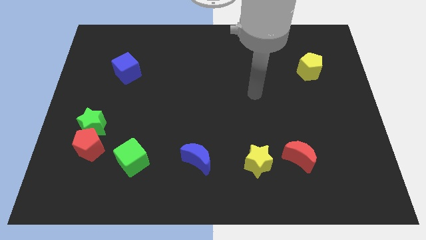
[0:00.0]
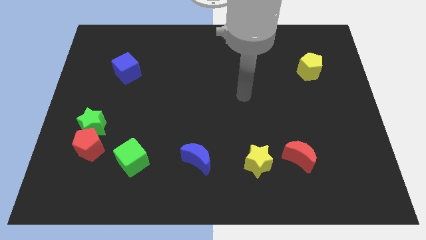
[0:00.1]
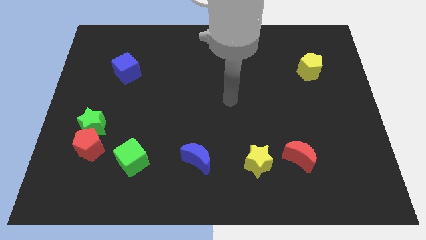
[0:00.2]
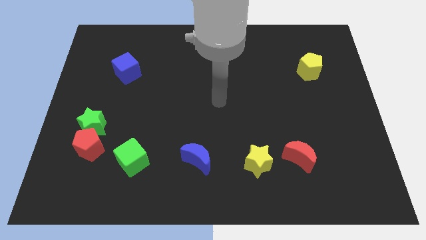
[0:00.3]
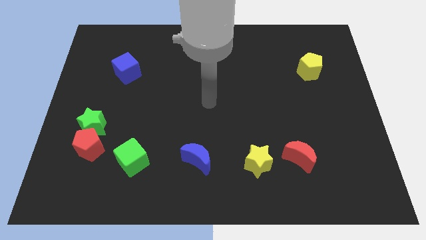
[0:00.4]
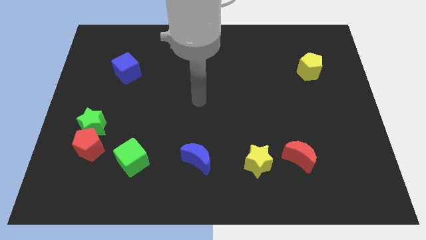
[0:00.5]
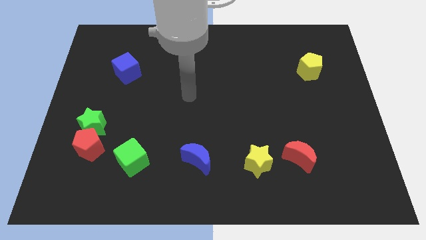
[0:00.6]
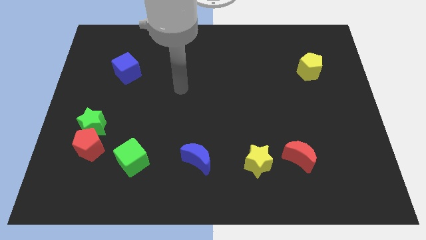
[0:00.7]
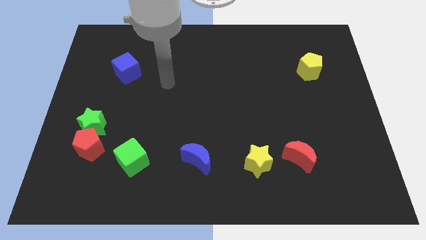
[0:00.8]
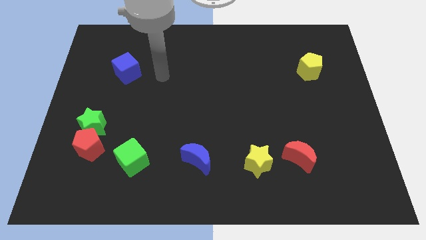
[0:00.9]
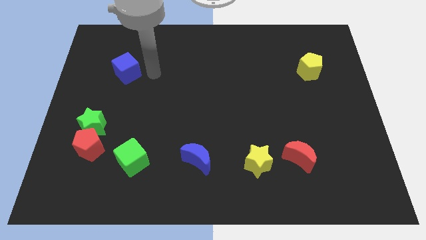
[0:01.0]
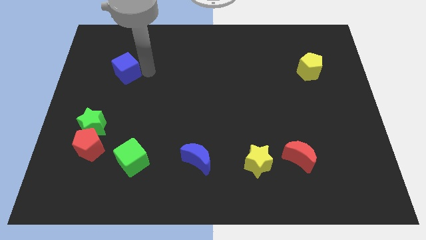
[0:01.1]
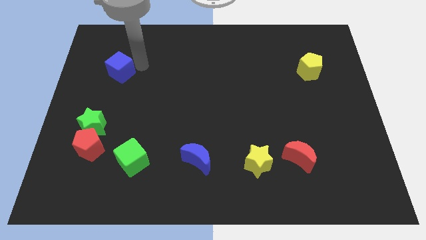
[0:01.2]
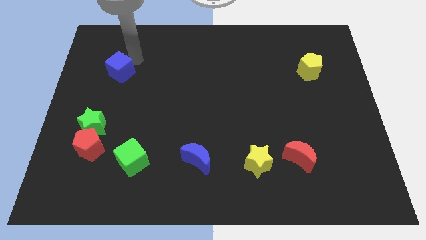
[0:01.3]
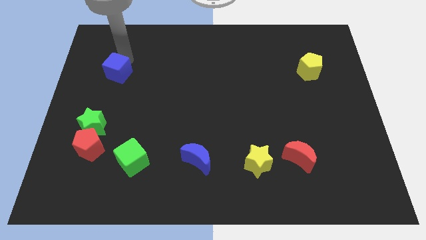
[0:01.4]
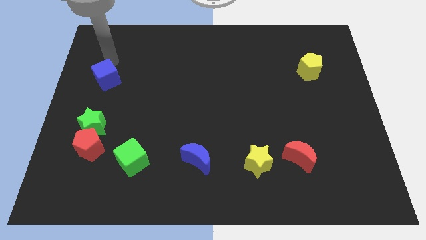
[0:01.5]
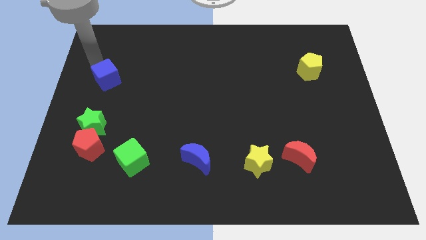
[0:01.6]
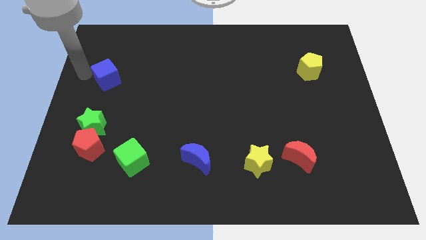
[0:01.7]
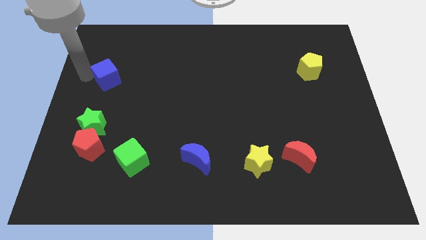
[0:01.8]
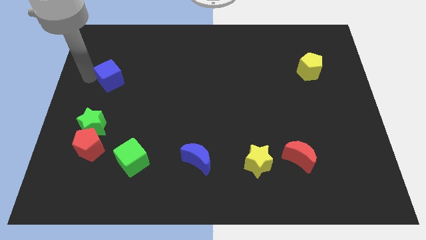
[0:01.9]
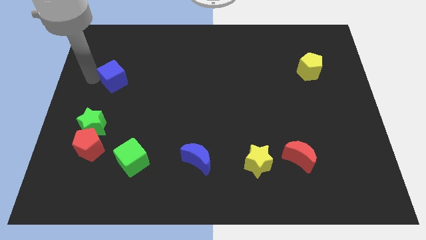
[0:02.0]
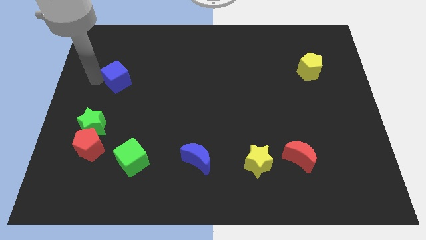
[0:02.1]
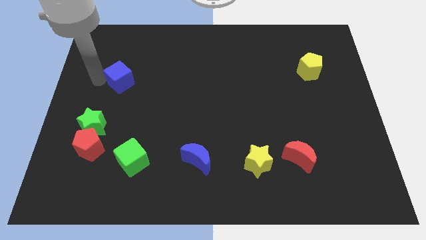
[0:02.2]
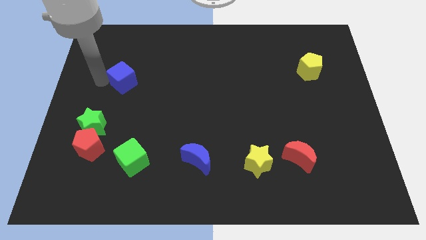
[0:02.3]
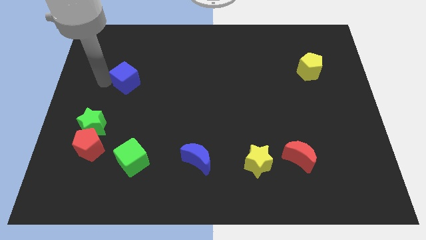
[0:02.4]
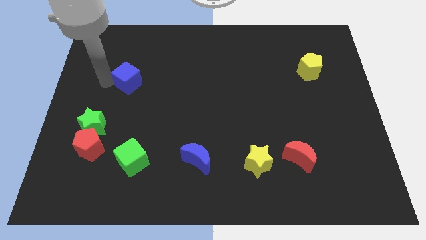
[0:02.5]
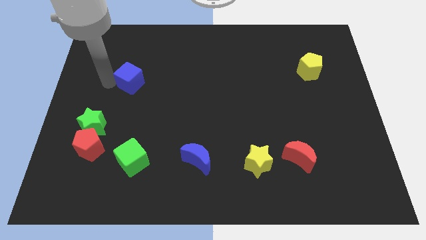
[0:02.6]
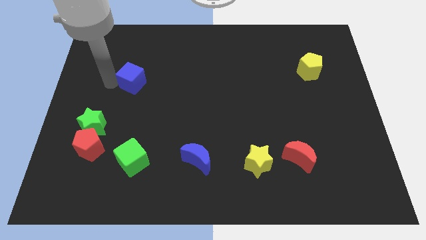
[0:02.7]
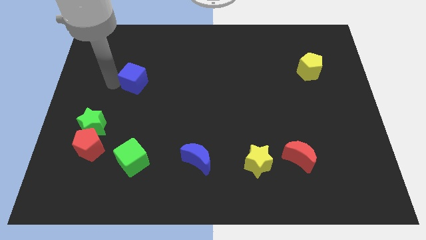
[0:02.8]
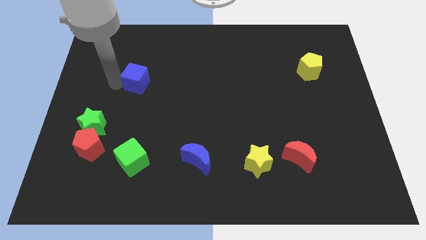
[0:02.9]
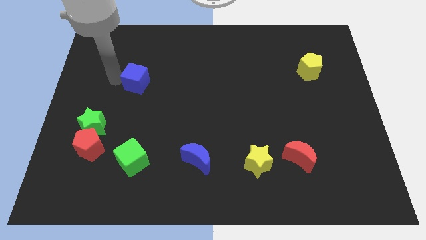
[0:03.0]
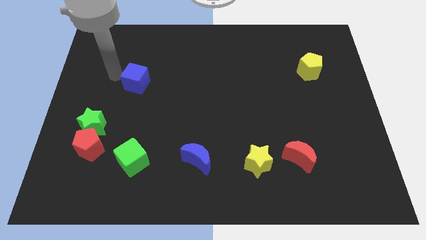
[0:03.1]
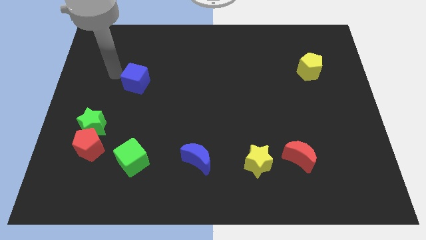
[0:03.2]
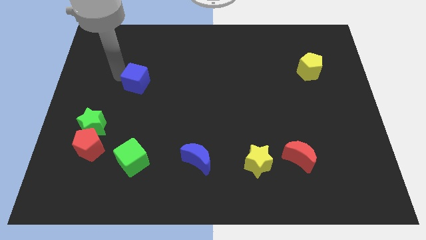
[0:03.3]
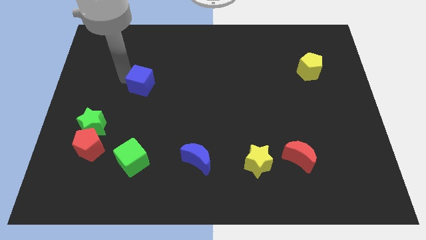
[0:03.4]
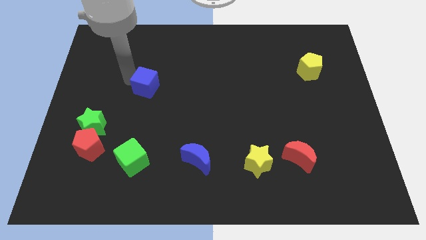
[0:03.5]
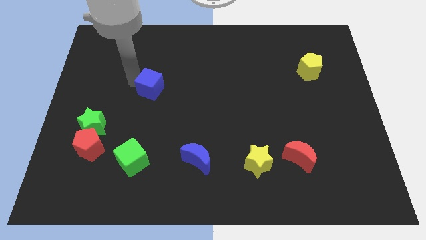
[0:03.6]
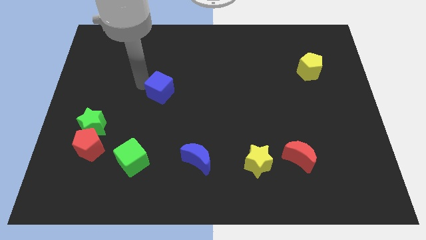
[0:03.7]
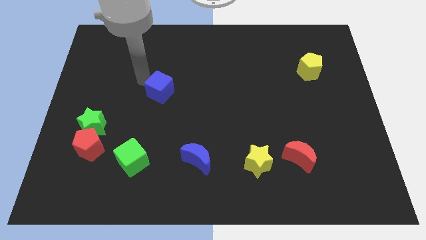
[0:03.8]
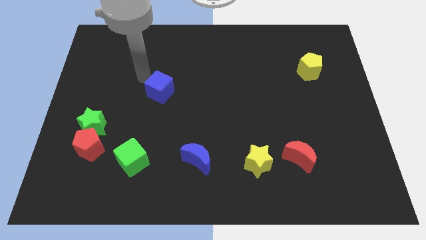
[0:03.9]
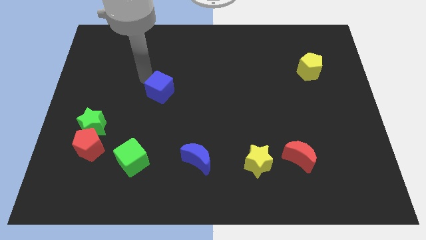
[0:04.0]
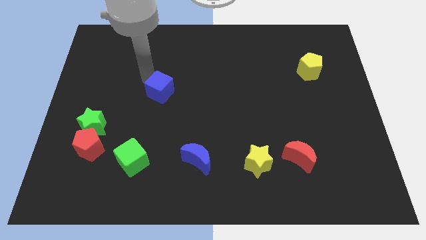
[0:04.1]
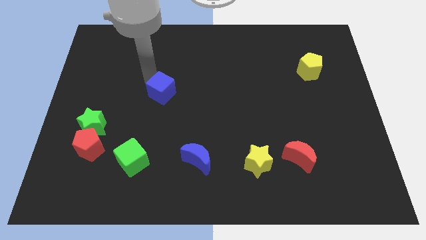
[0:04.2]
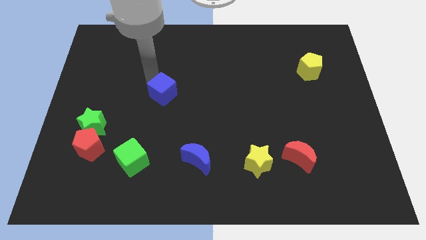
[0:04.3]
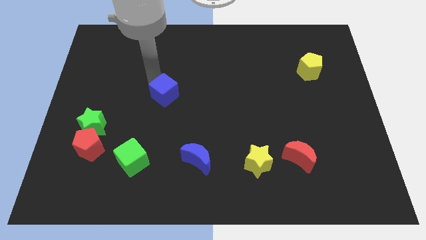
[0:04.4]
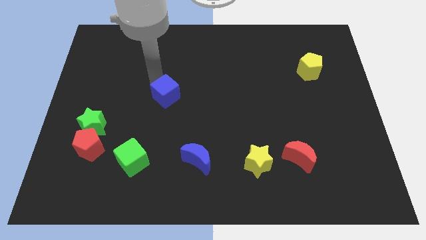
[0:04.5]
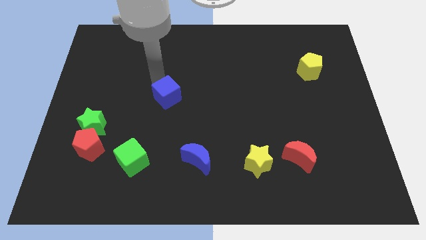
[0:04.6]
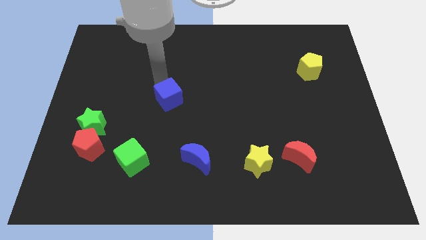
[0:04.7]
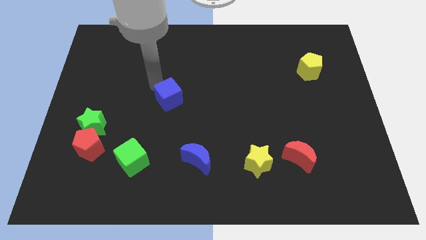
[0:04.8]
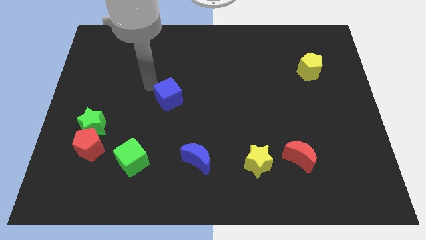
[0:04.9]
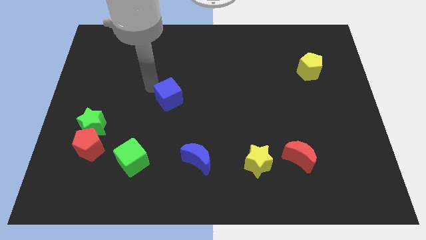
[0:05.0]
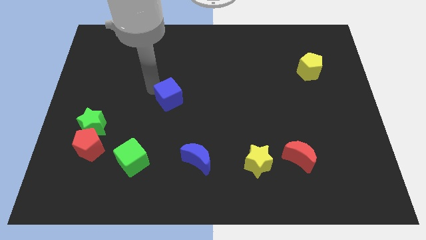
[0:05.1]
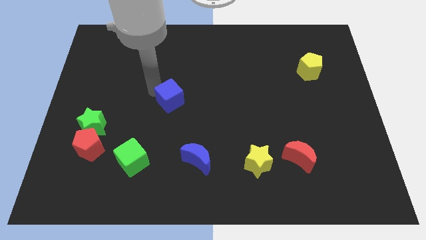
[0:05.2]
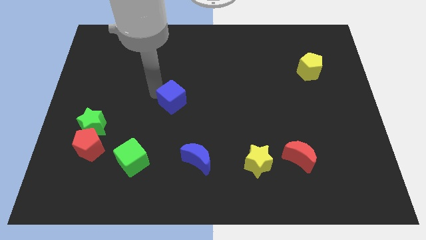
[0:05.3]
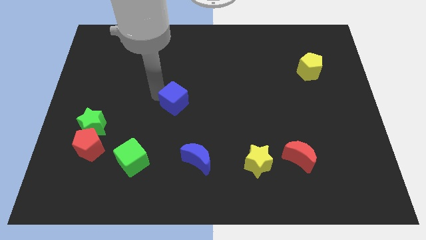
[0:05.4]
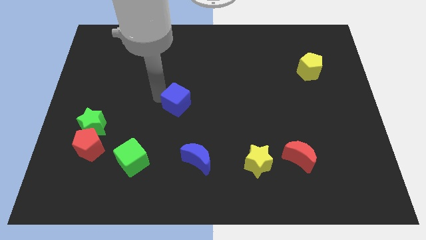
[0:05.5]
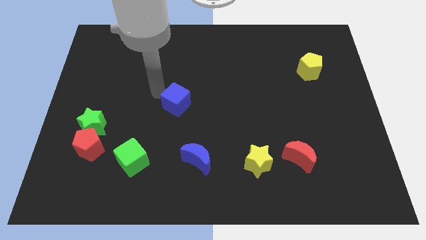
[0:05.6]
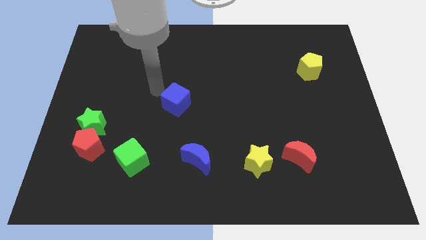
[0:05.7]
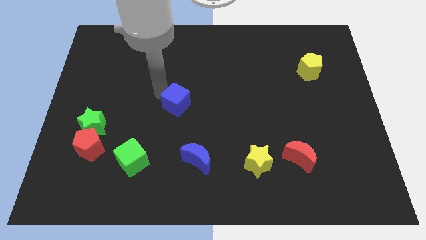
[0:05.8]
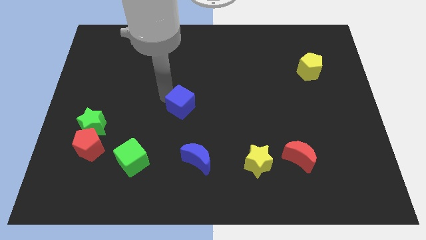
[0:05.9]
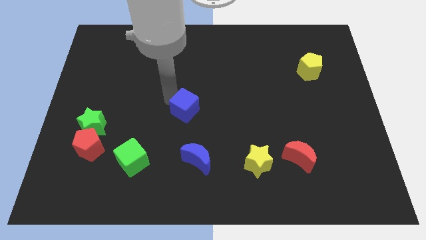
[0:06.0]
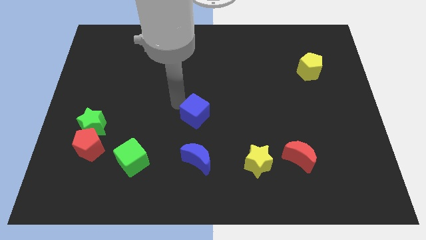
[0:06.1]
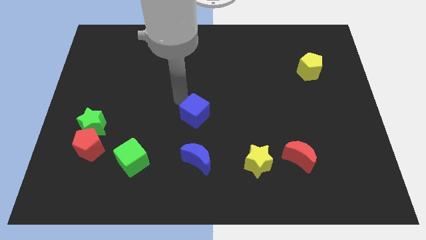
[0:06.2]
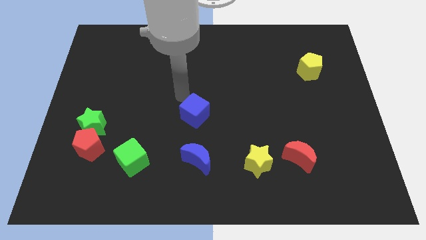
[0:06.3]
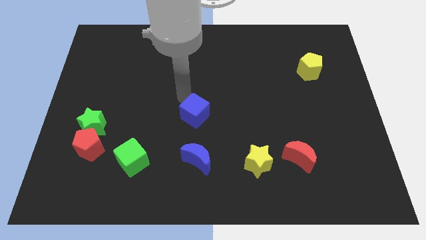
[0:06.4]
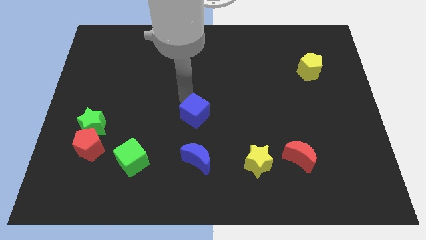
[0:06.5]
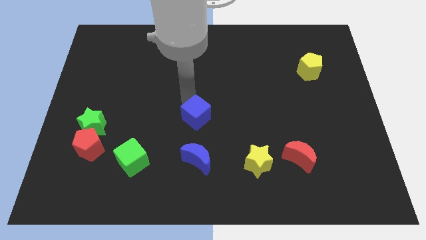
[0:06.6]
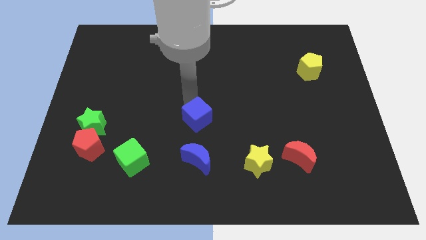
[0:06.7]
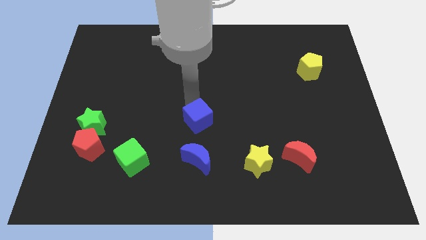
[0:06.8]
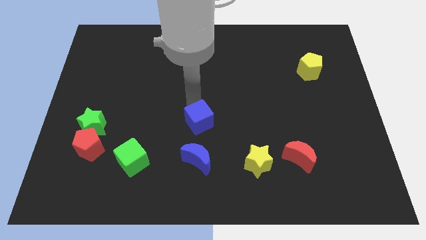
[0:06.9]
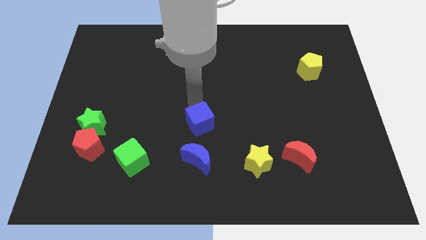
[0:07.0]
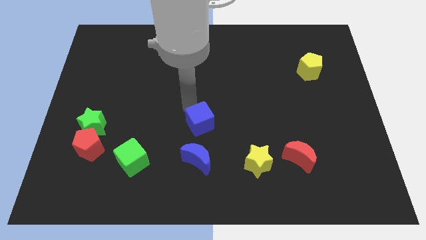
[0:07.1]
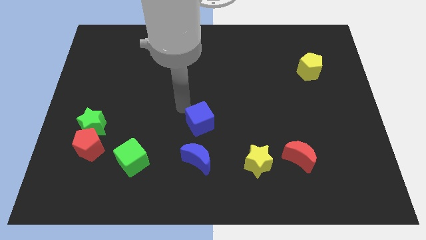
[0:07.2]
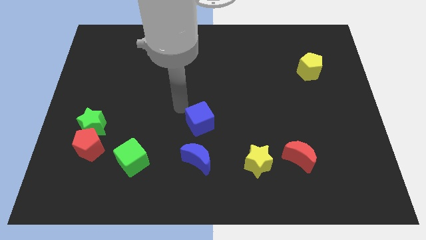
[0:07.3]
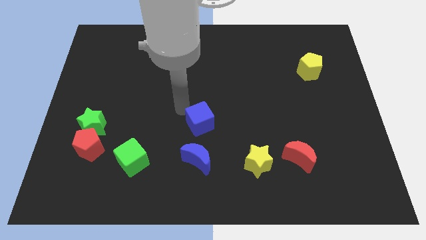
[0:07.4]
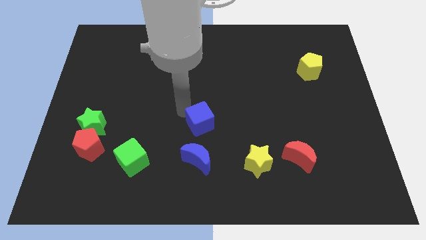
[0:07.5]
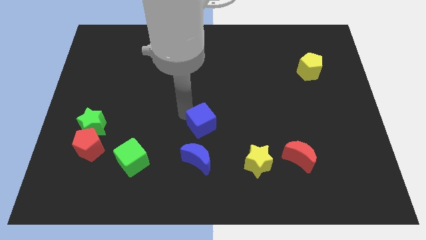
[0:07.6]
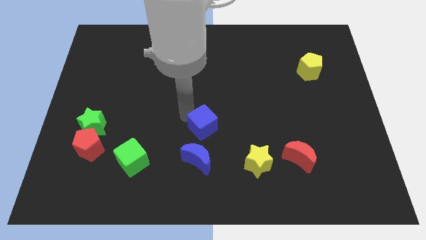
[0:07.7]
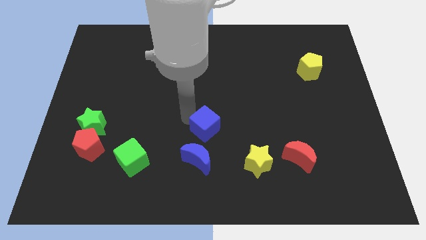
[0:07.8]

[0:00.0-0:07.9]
put the blue cube diagonally up and to the right of the blue moon
